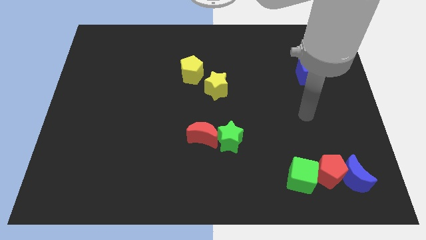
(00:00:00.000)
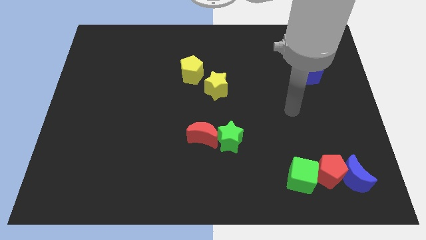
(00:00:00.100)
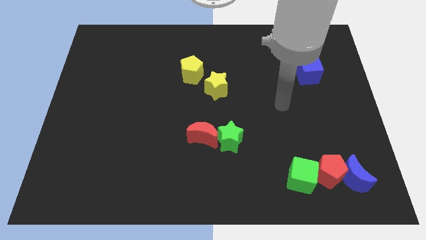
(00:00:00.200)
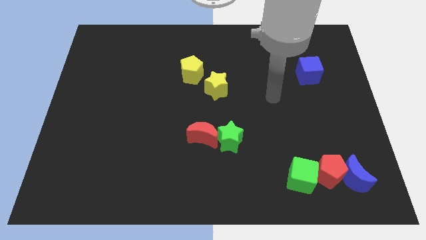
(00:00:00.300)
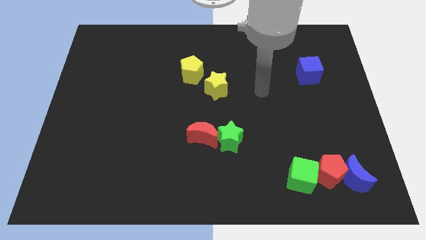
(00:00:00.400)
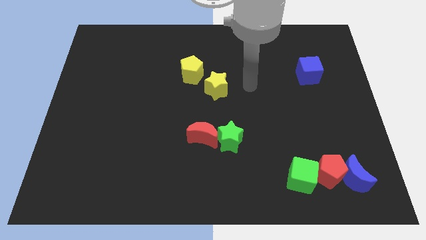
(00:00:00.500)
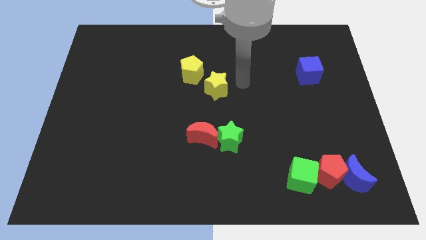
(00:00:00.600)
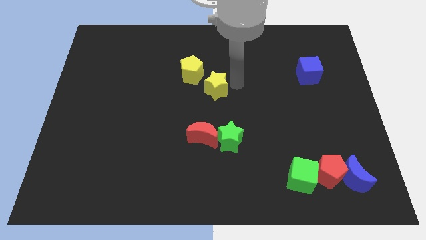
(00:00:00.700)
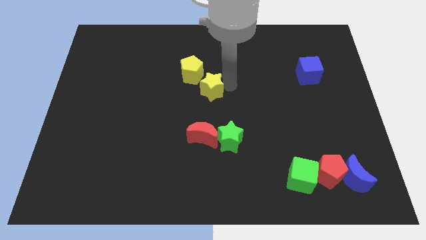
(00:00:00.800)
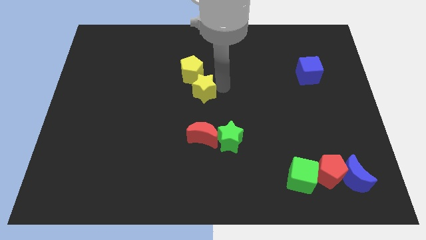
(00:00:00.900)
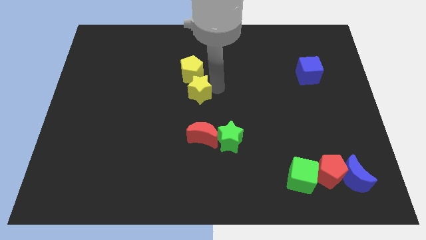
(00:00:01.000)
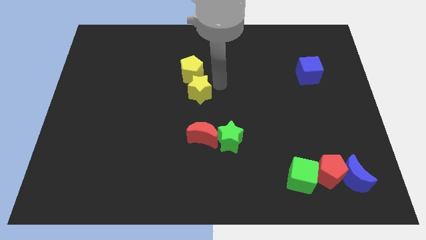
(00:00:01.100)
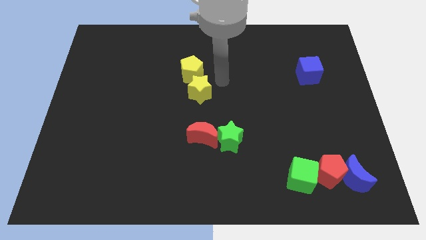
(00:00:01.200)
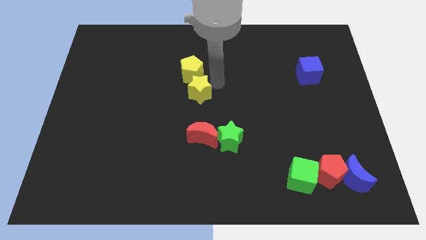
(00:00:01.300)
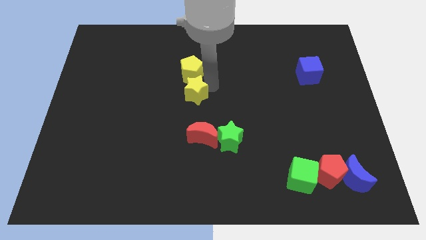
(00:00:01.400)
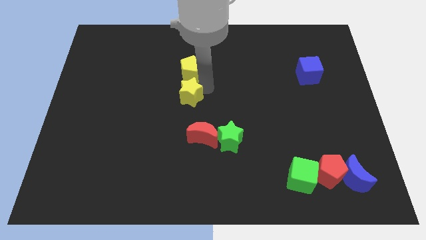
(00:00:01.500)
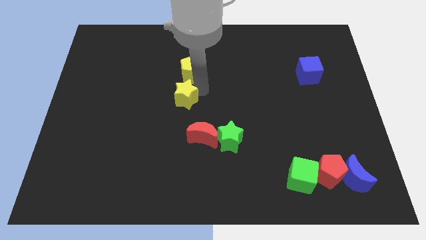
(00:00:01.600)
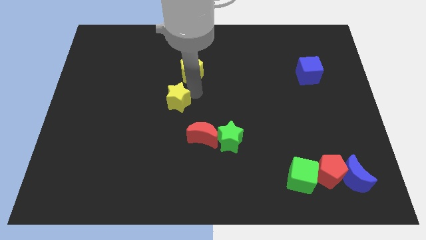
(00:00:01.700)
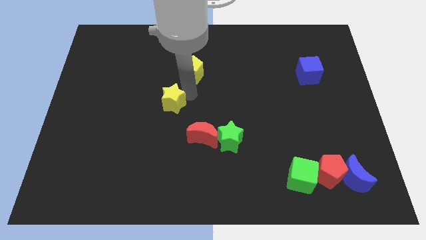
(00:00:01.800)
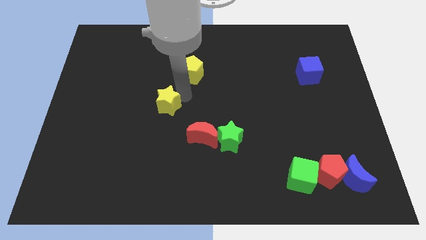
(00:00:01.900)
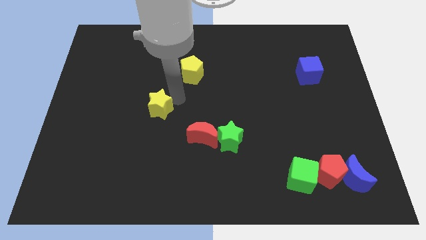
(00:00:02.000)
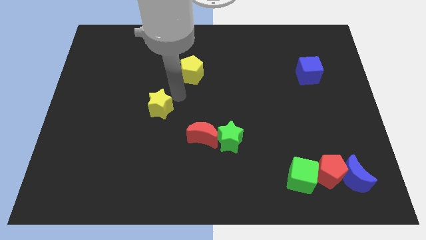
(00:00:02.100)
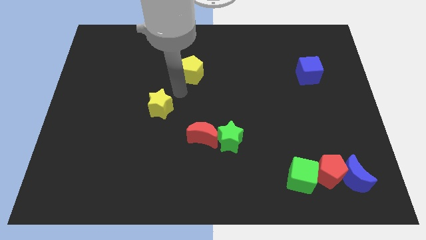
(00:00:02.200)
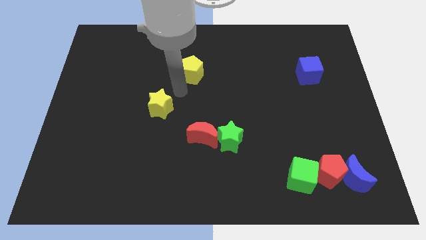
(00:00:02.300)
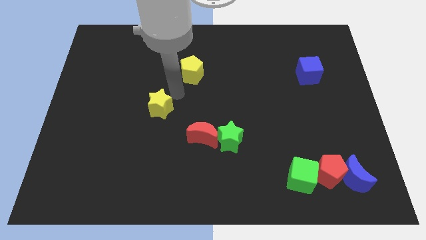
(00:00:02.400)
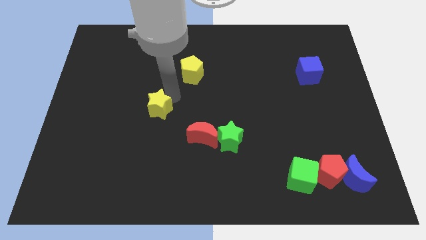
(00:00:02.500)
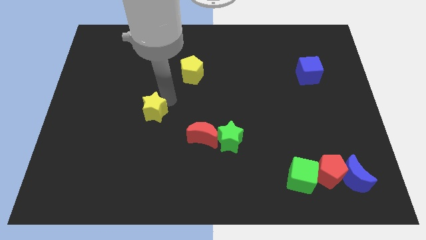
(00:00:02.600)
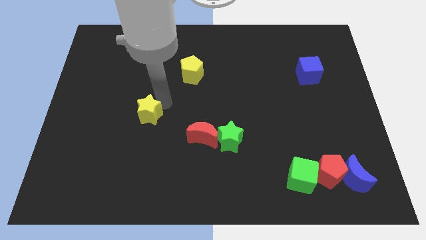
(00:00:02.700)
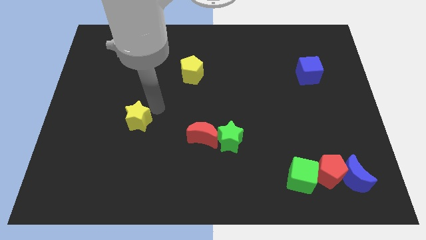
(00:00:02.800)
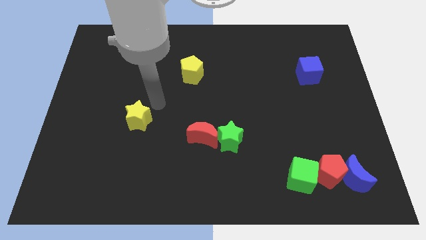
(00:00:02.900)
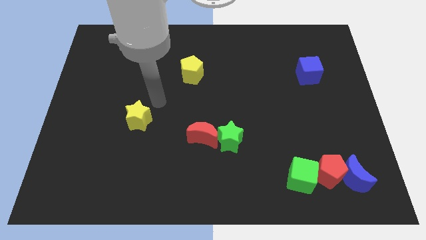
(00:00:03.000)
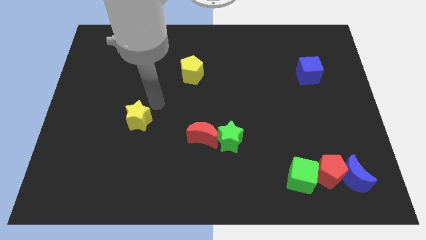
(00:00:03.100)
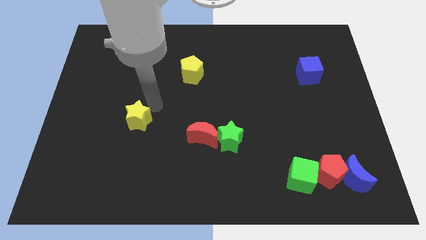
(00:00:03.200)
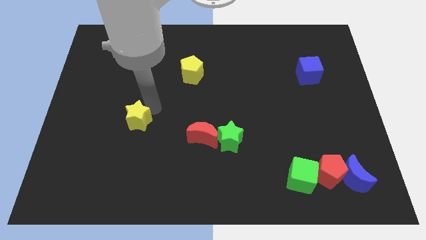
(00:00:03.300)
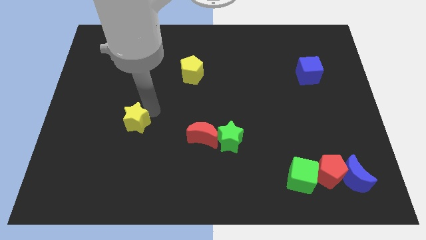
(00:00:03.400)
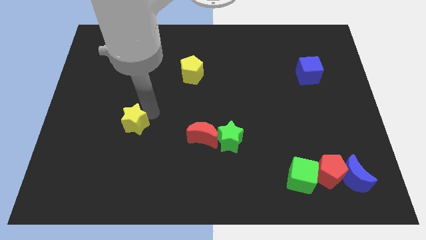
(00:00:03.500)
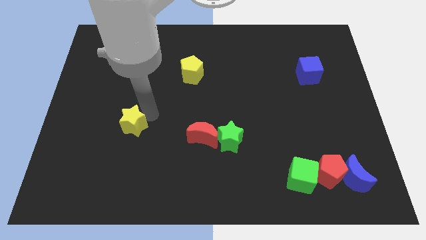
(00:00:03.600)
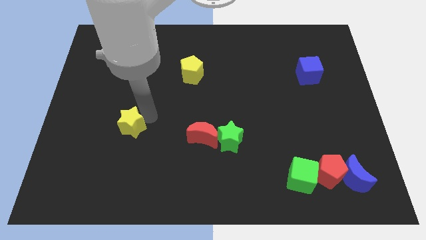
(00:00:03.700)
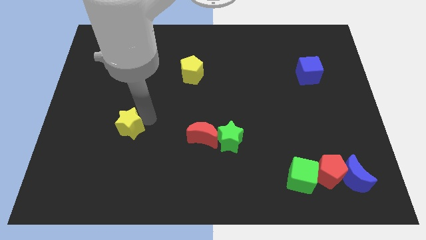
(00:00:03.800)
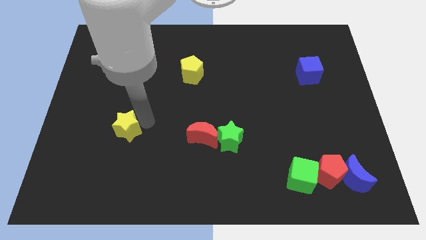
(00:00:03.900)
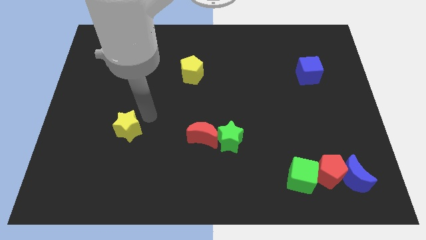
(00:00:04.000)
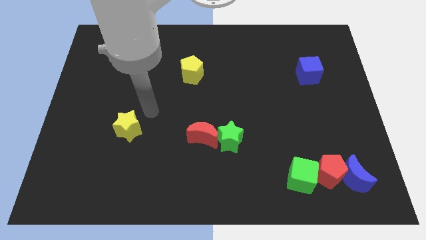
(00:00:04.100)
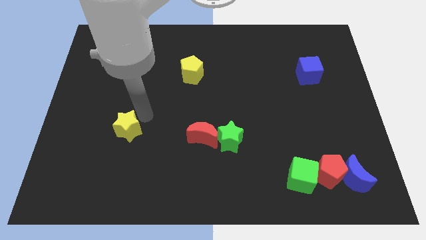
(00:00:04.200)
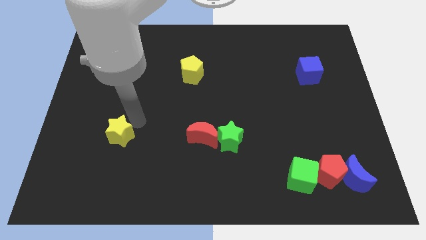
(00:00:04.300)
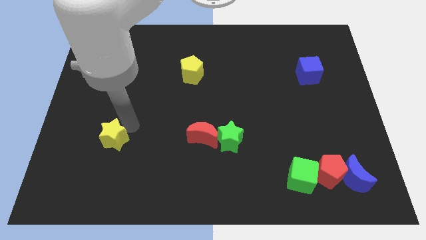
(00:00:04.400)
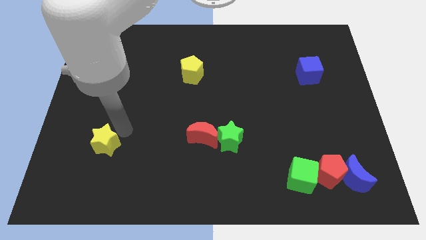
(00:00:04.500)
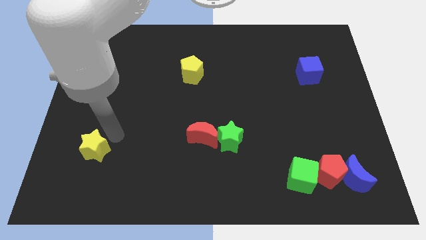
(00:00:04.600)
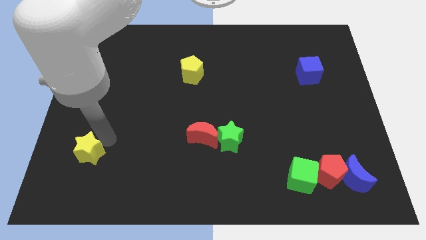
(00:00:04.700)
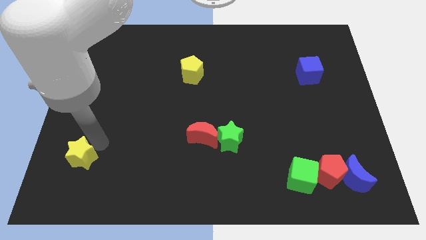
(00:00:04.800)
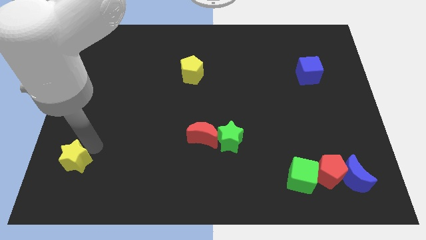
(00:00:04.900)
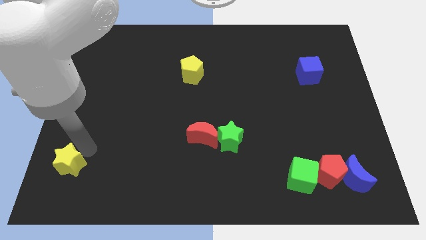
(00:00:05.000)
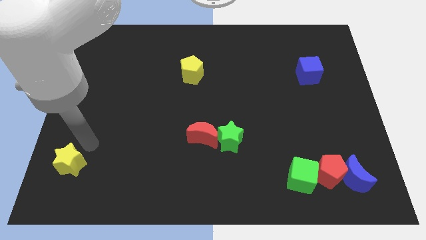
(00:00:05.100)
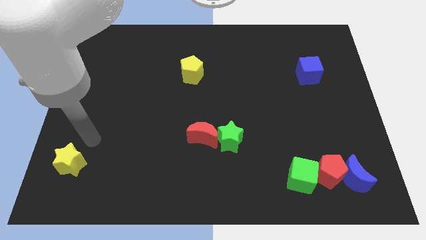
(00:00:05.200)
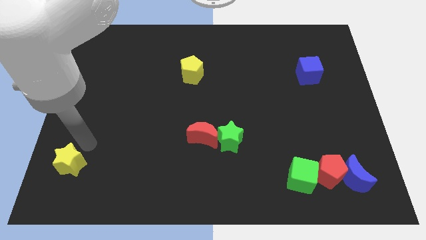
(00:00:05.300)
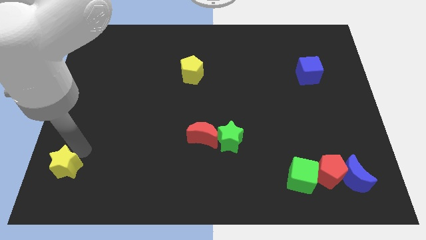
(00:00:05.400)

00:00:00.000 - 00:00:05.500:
push the yellow star to the bottom left
